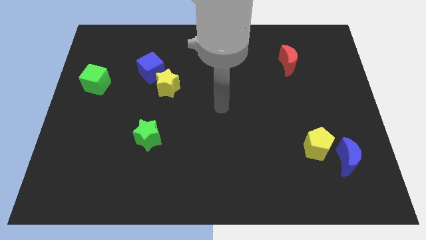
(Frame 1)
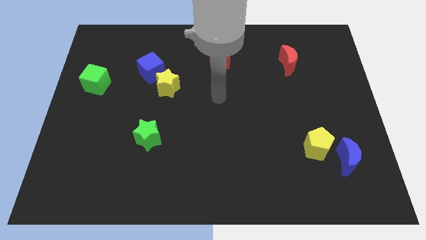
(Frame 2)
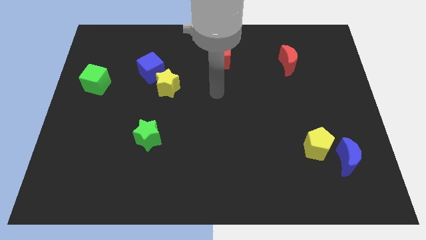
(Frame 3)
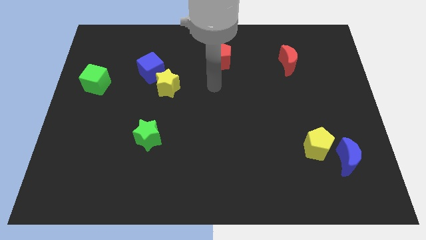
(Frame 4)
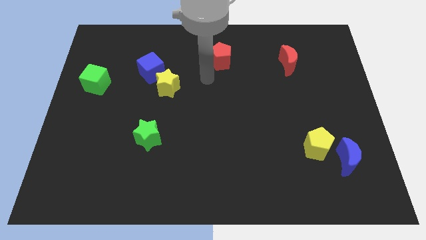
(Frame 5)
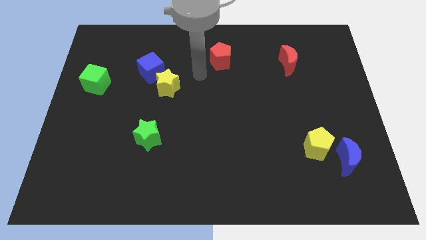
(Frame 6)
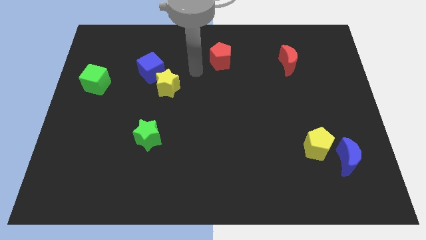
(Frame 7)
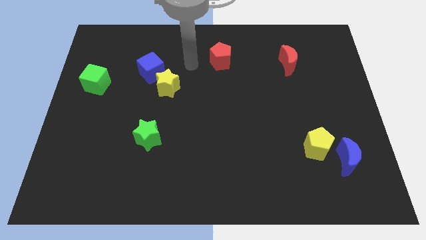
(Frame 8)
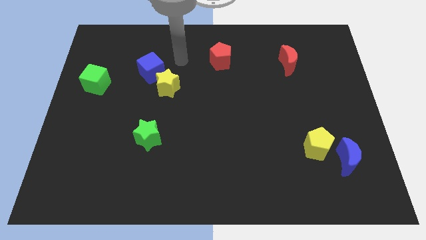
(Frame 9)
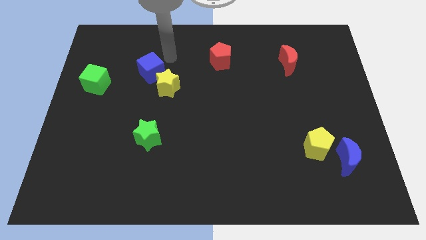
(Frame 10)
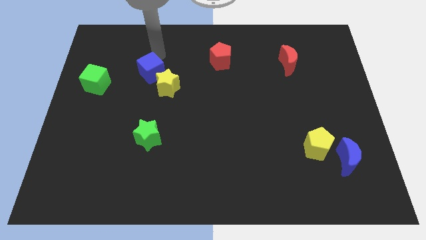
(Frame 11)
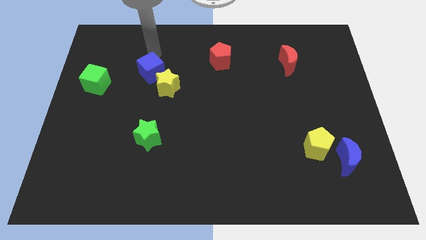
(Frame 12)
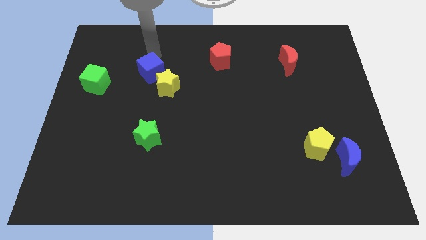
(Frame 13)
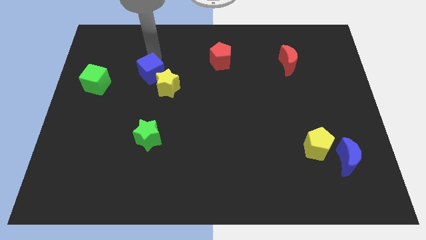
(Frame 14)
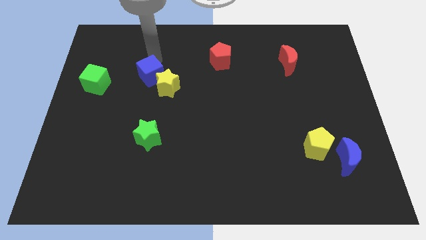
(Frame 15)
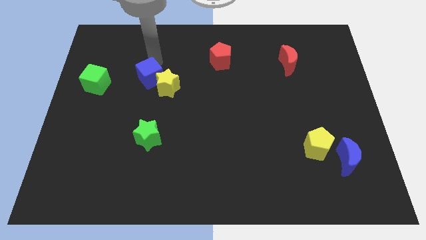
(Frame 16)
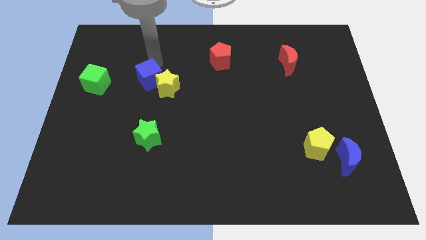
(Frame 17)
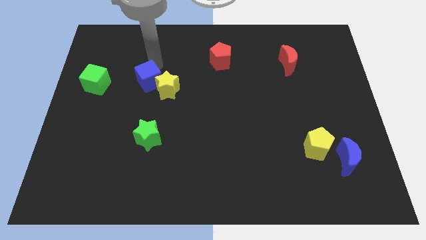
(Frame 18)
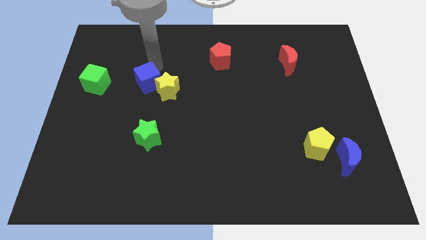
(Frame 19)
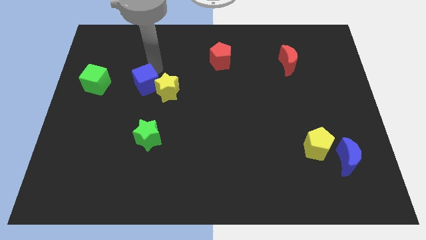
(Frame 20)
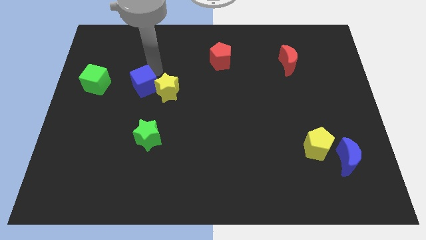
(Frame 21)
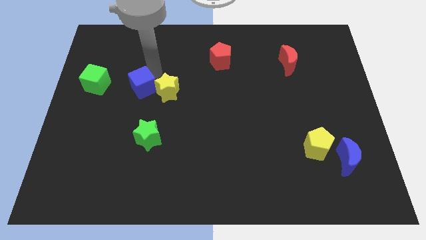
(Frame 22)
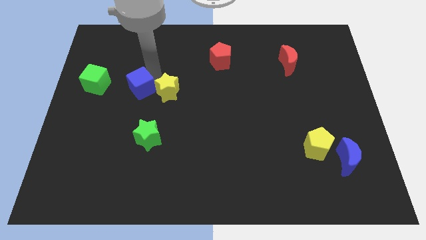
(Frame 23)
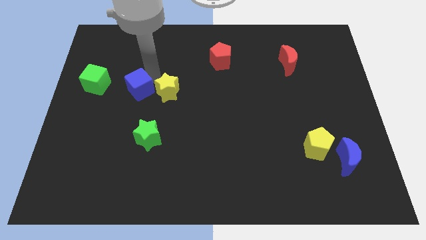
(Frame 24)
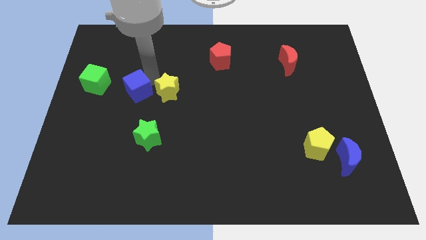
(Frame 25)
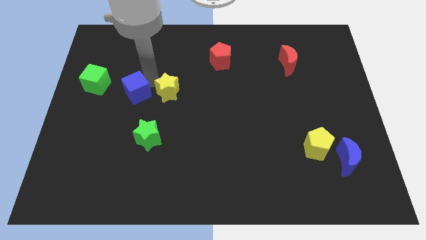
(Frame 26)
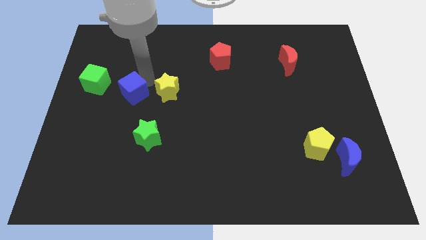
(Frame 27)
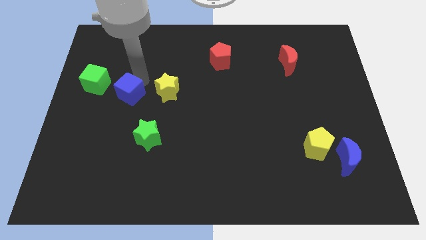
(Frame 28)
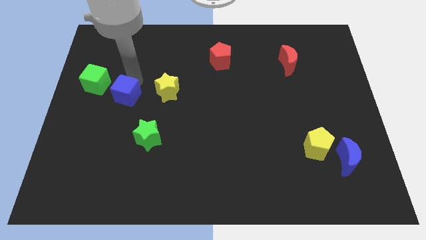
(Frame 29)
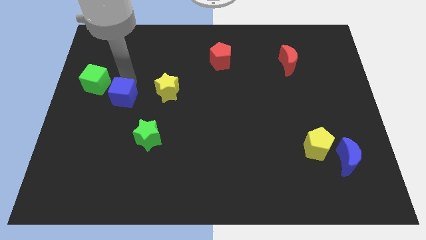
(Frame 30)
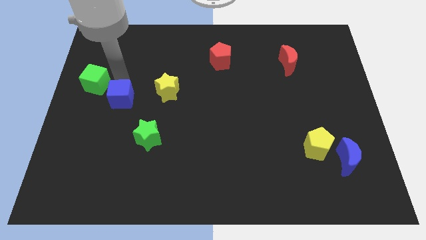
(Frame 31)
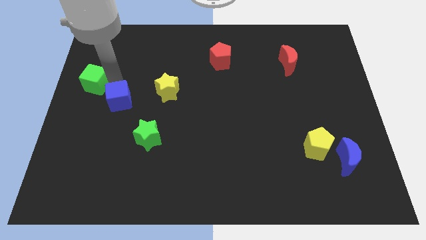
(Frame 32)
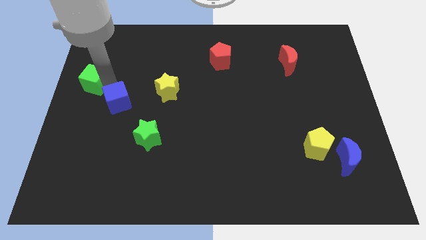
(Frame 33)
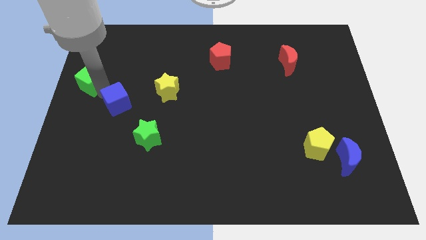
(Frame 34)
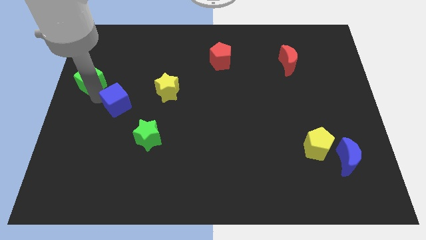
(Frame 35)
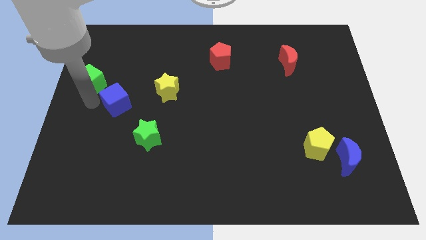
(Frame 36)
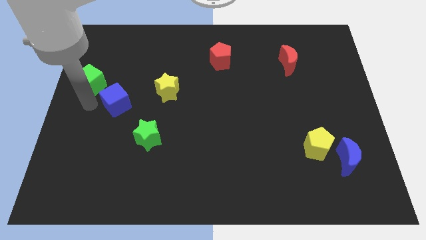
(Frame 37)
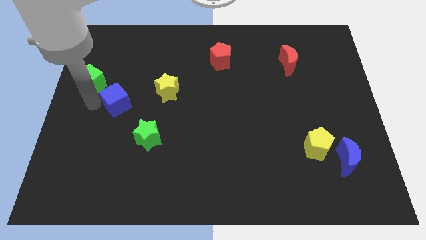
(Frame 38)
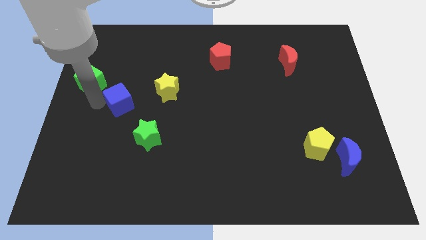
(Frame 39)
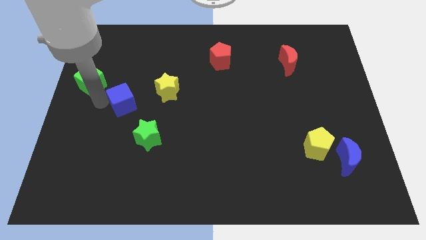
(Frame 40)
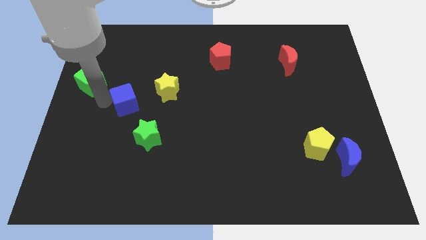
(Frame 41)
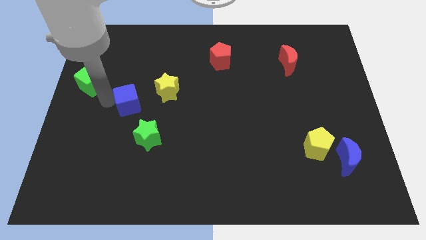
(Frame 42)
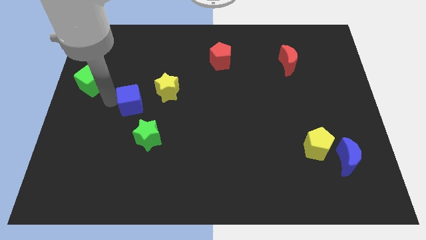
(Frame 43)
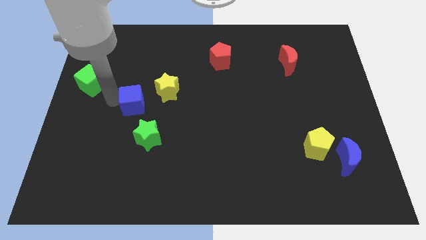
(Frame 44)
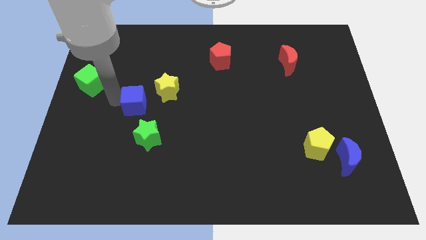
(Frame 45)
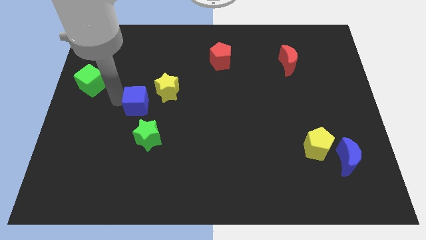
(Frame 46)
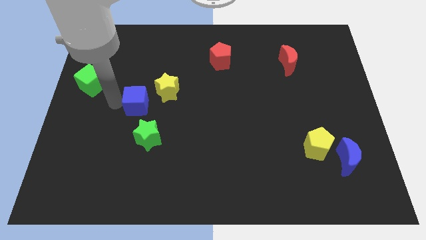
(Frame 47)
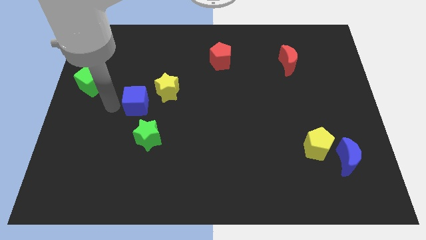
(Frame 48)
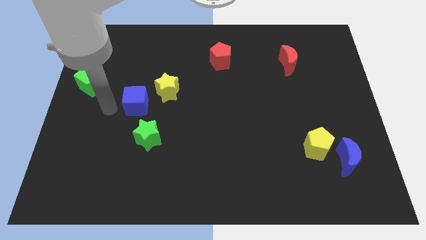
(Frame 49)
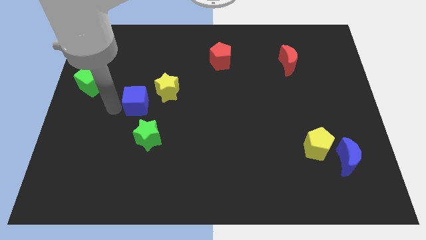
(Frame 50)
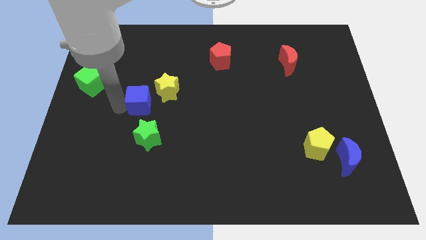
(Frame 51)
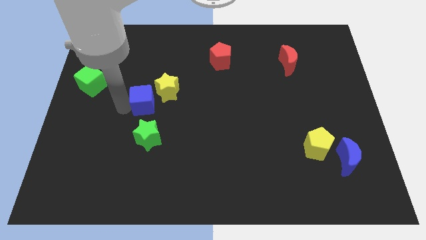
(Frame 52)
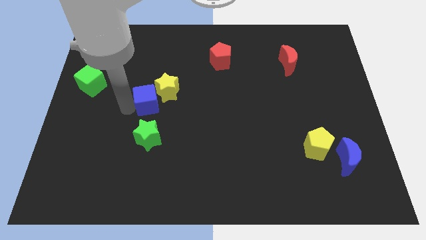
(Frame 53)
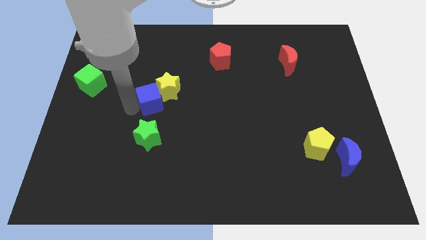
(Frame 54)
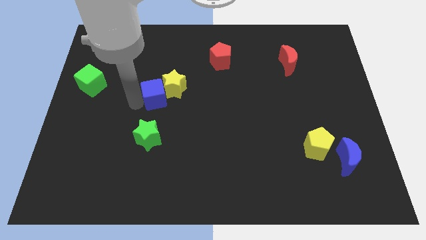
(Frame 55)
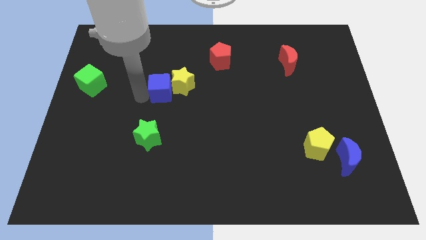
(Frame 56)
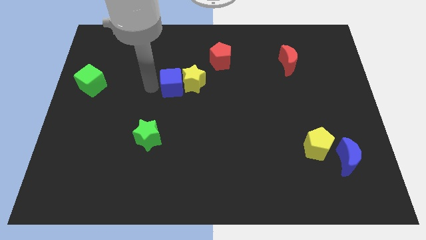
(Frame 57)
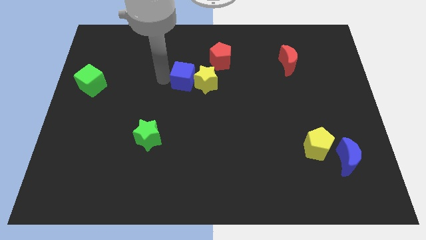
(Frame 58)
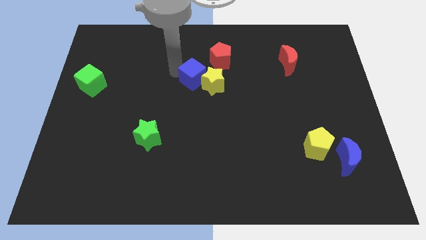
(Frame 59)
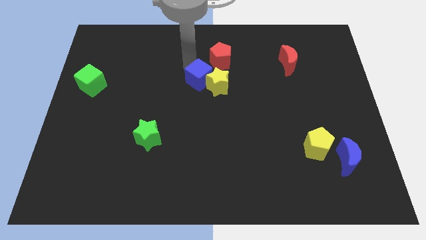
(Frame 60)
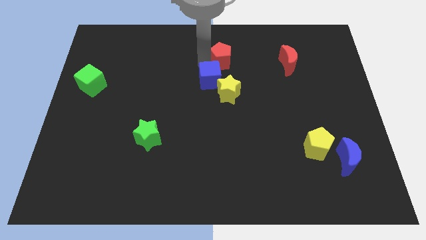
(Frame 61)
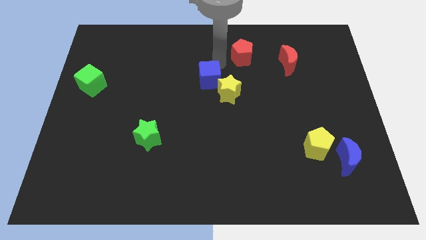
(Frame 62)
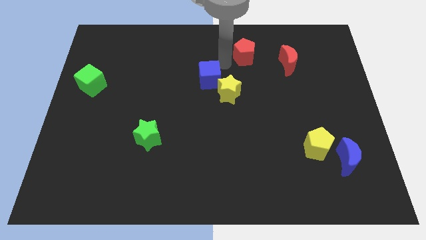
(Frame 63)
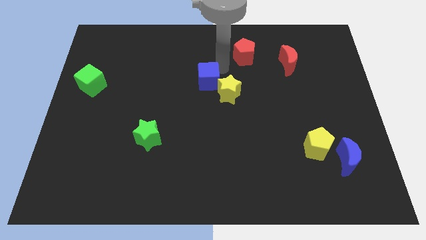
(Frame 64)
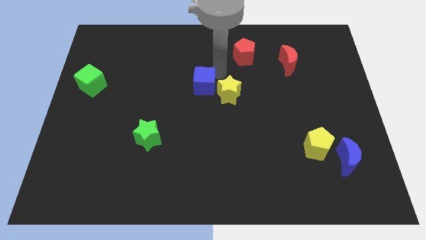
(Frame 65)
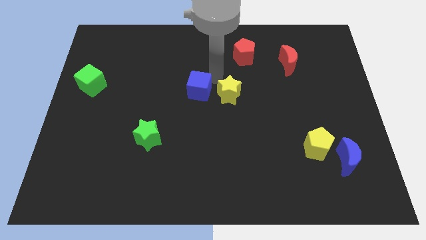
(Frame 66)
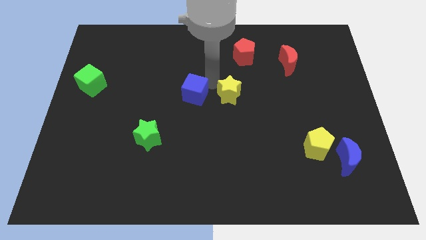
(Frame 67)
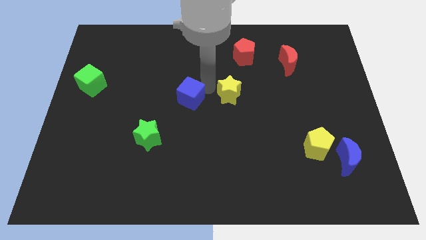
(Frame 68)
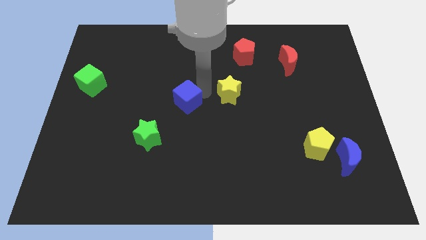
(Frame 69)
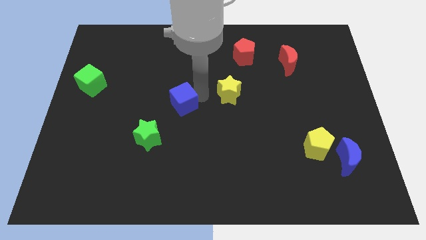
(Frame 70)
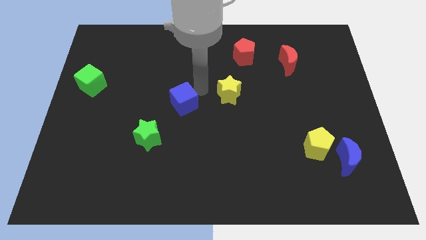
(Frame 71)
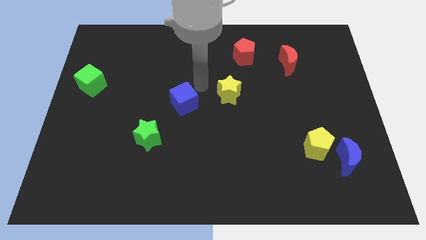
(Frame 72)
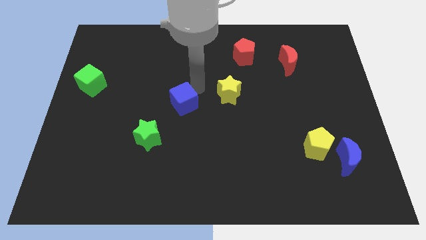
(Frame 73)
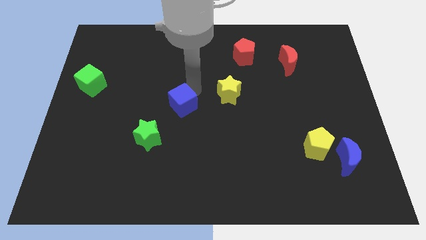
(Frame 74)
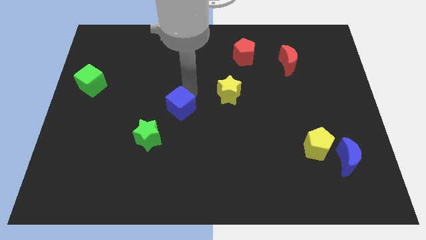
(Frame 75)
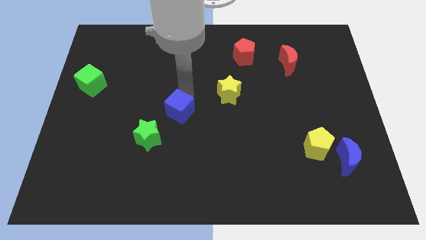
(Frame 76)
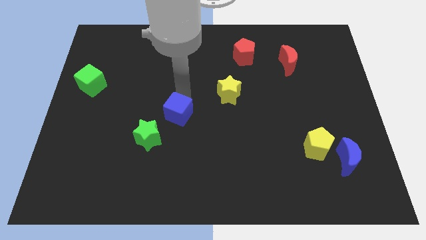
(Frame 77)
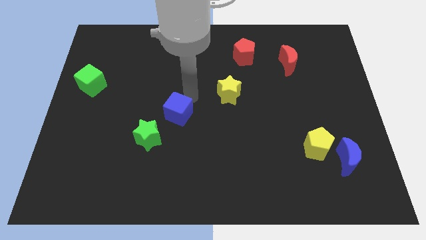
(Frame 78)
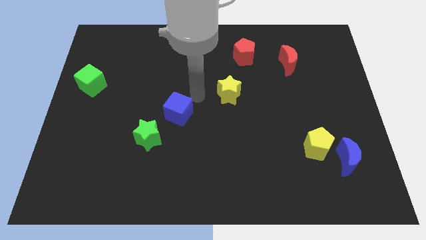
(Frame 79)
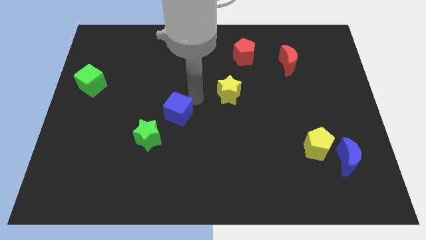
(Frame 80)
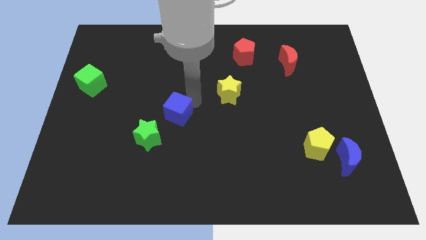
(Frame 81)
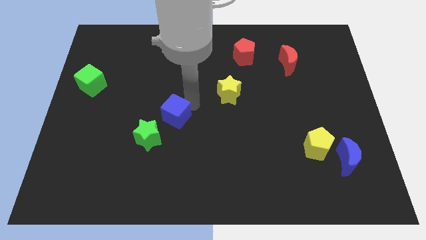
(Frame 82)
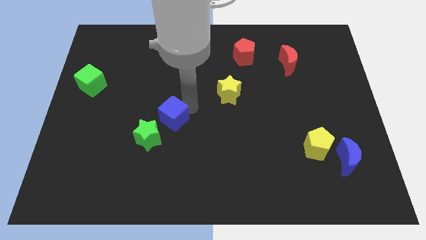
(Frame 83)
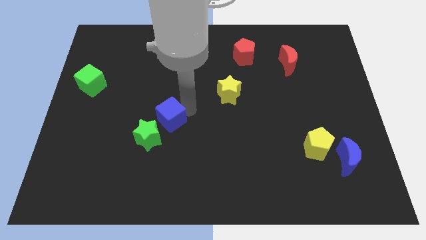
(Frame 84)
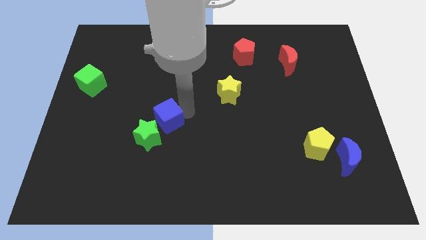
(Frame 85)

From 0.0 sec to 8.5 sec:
slide the blue cube close to the green star
